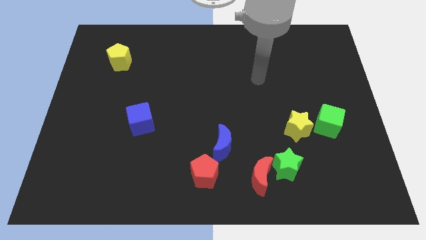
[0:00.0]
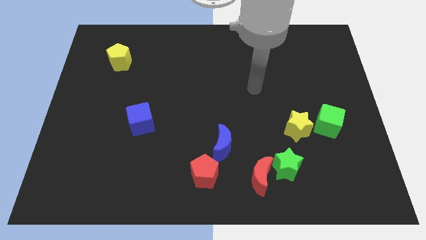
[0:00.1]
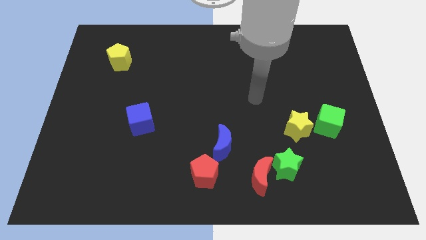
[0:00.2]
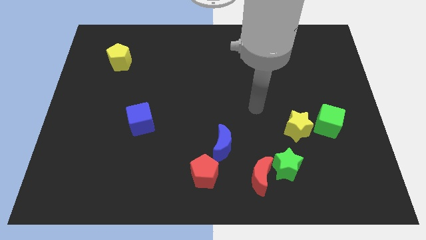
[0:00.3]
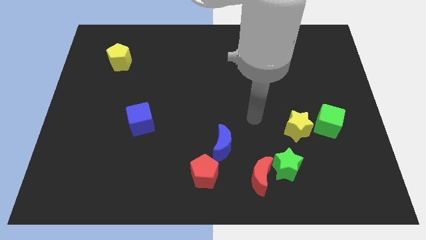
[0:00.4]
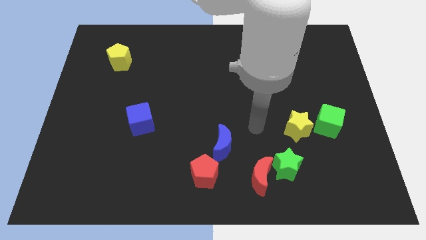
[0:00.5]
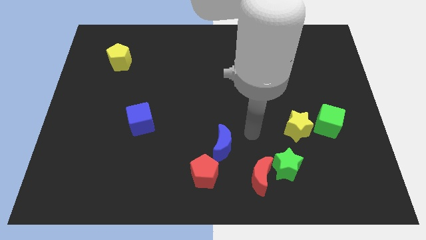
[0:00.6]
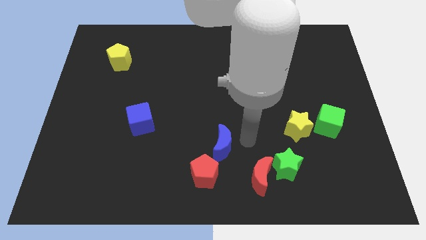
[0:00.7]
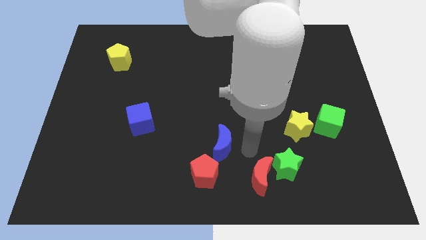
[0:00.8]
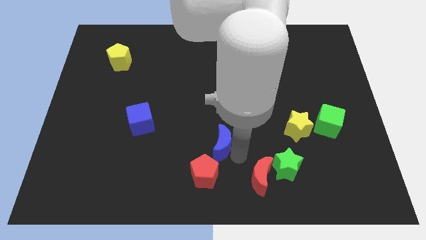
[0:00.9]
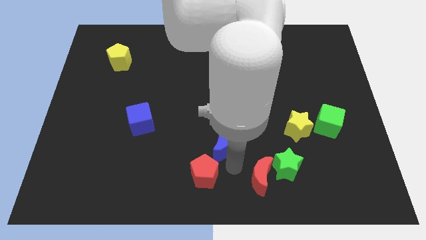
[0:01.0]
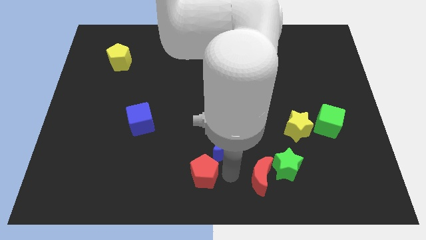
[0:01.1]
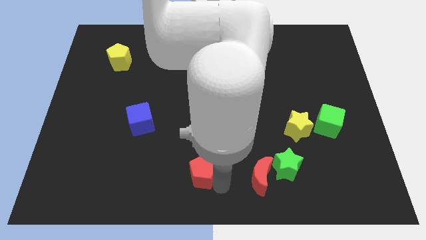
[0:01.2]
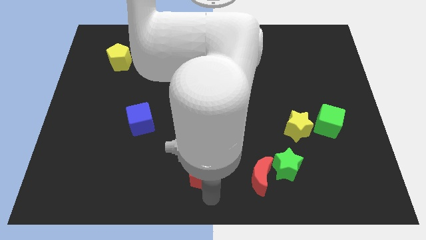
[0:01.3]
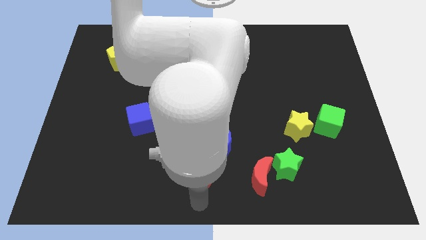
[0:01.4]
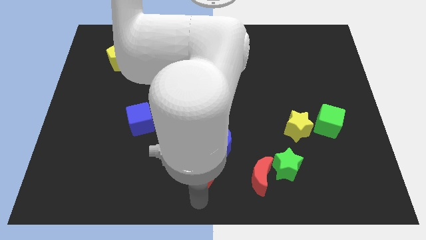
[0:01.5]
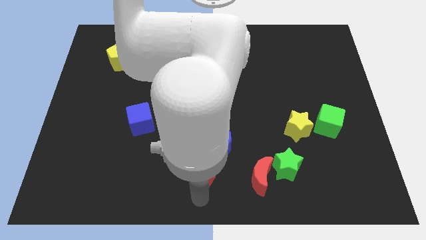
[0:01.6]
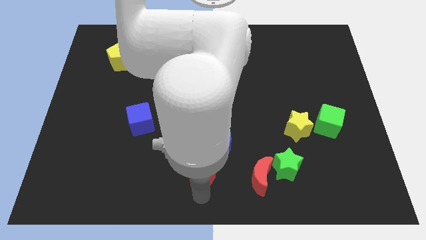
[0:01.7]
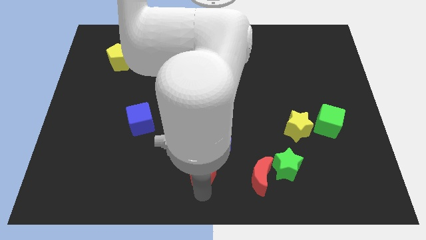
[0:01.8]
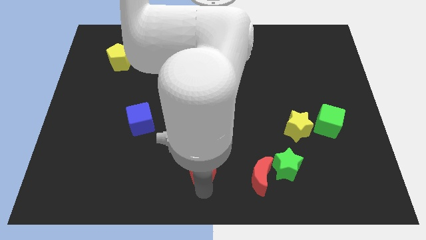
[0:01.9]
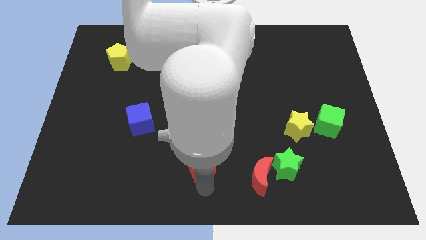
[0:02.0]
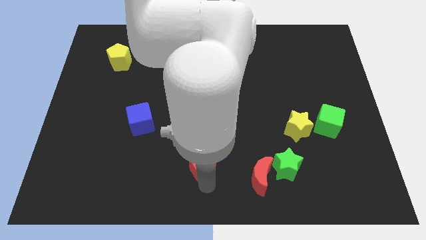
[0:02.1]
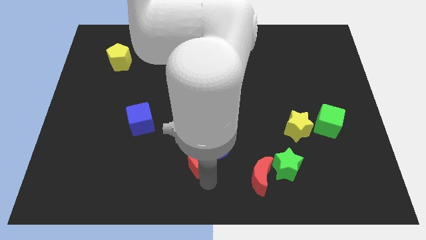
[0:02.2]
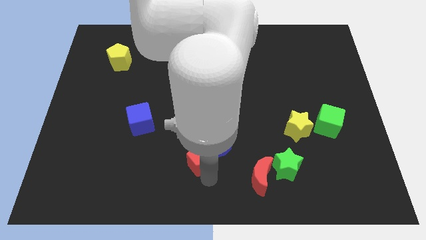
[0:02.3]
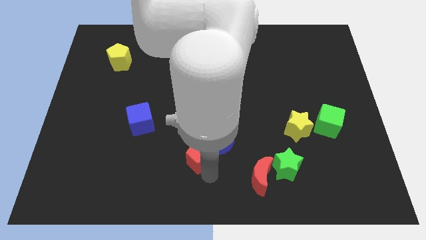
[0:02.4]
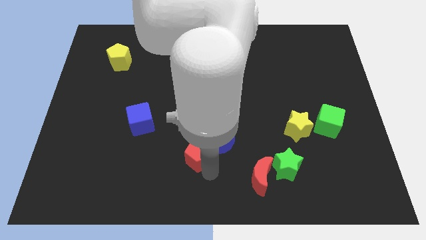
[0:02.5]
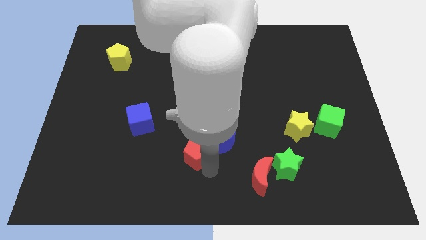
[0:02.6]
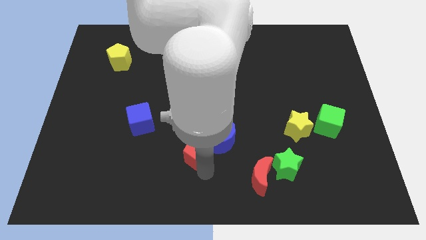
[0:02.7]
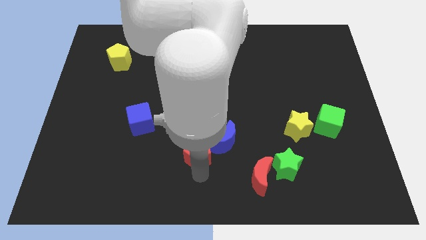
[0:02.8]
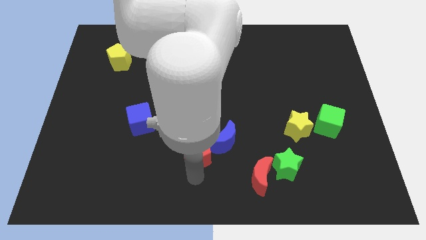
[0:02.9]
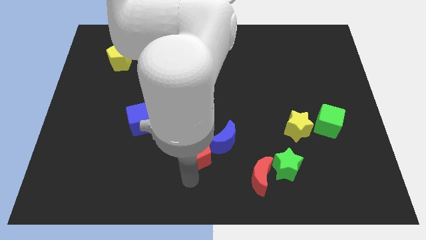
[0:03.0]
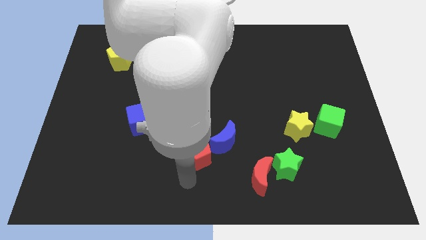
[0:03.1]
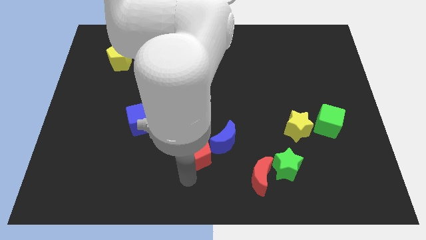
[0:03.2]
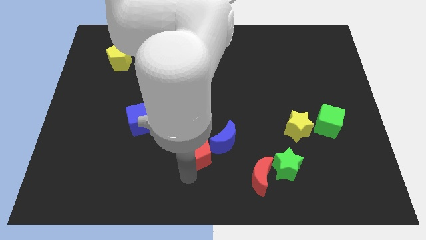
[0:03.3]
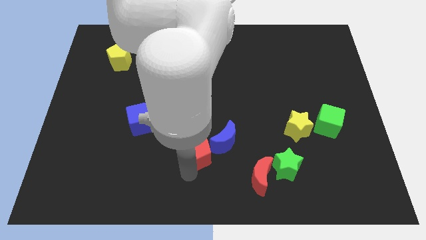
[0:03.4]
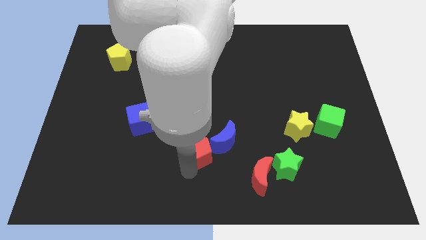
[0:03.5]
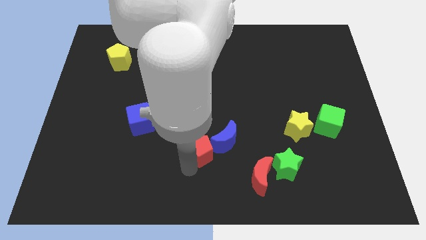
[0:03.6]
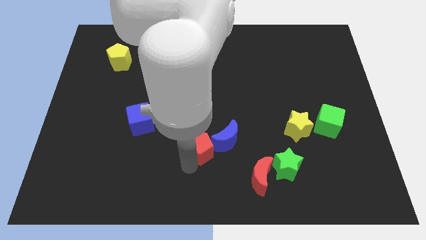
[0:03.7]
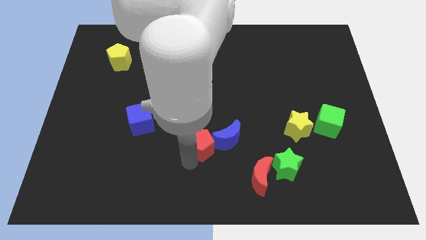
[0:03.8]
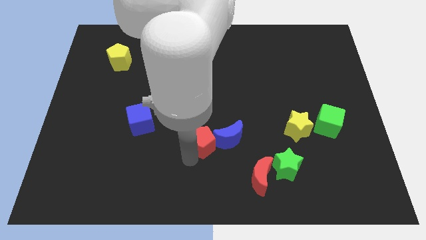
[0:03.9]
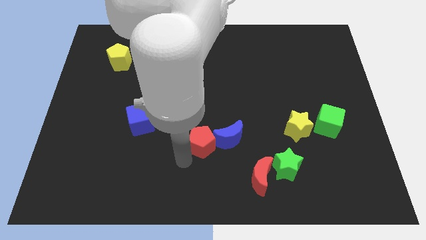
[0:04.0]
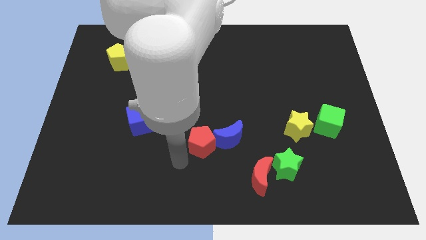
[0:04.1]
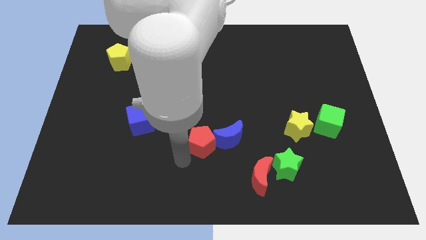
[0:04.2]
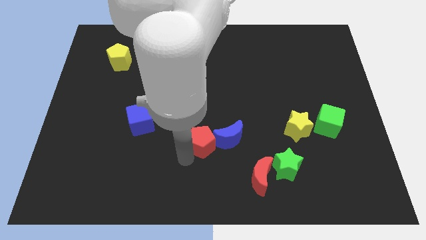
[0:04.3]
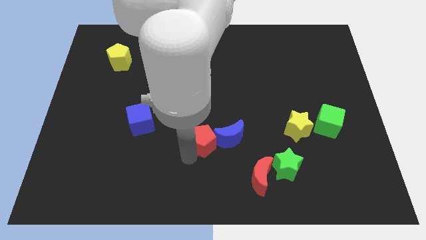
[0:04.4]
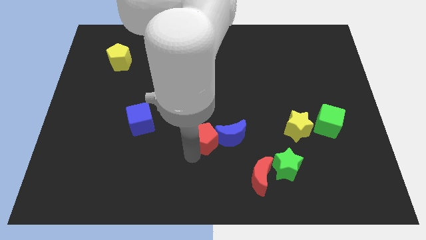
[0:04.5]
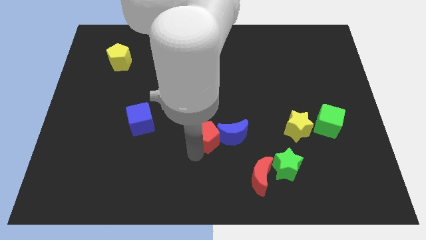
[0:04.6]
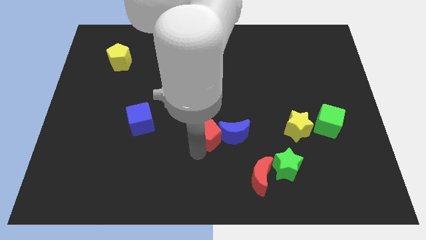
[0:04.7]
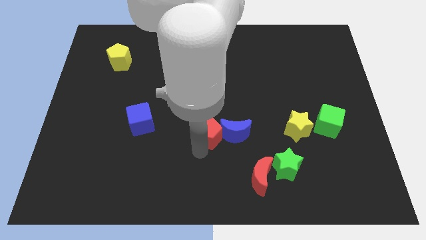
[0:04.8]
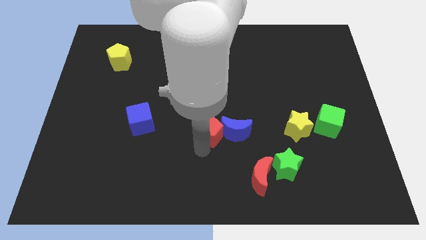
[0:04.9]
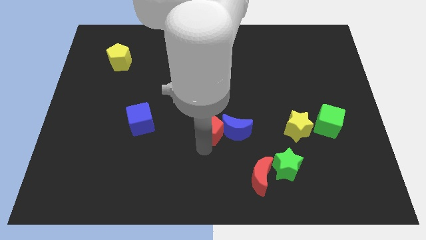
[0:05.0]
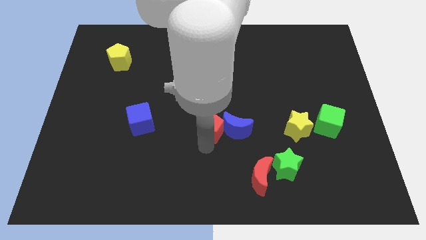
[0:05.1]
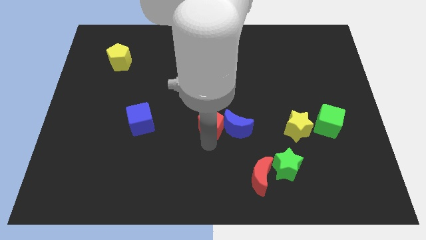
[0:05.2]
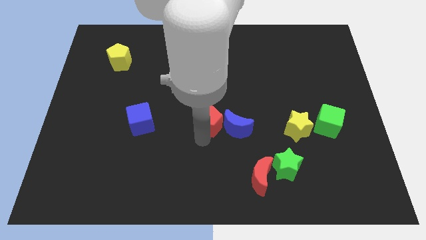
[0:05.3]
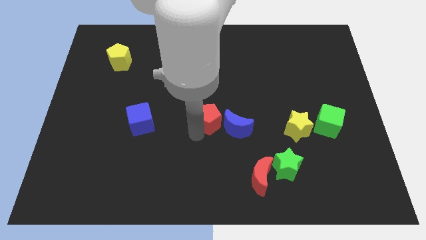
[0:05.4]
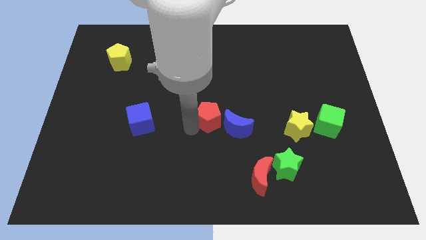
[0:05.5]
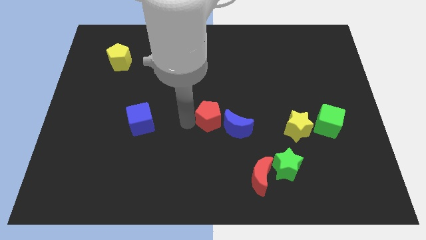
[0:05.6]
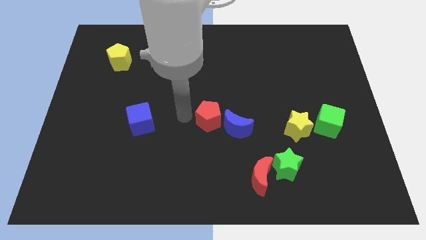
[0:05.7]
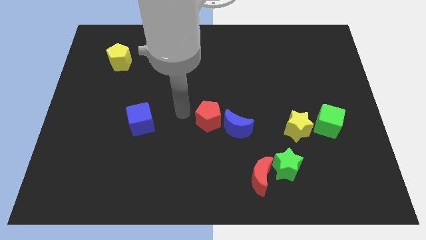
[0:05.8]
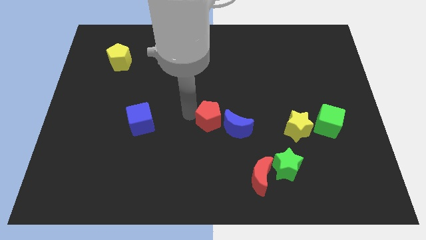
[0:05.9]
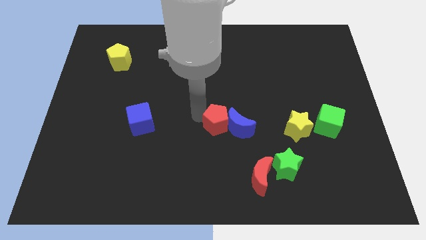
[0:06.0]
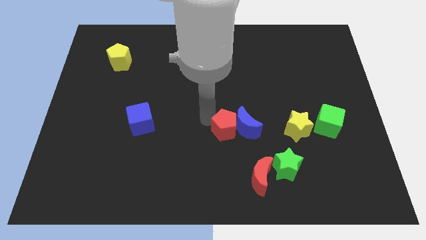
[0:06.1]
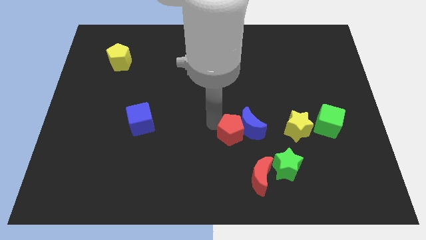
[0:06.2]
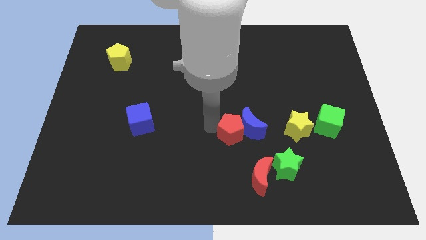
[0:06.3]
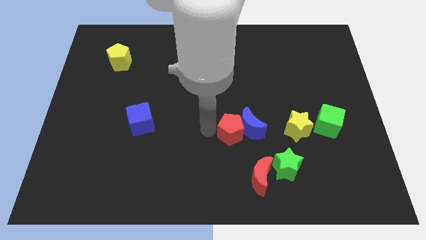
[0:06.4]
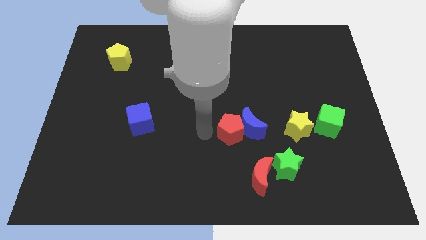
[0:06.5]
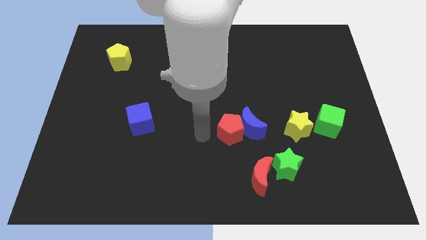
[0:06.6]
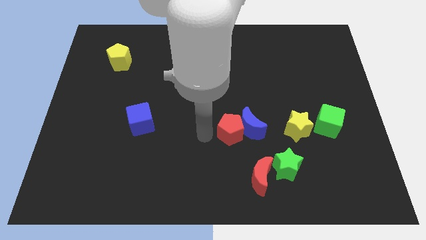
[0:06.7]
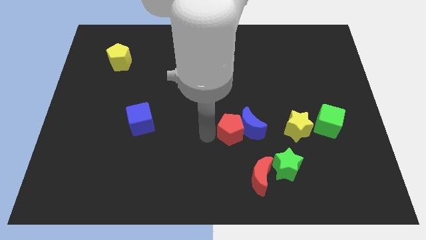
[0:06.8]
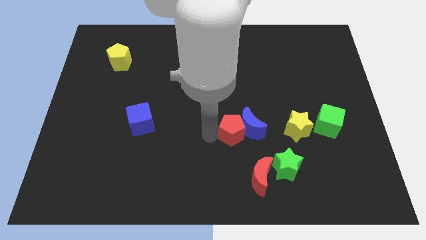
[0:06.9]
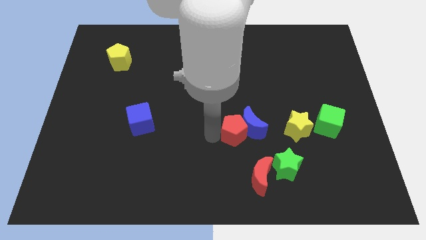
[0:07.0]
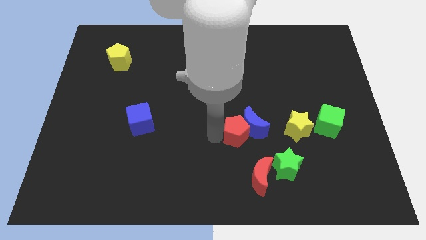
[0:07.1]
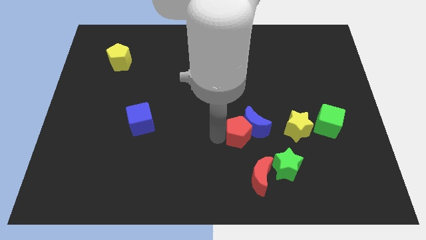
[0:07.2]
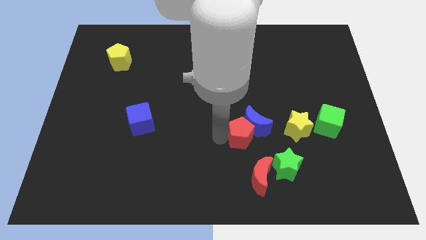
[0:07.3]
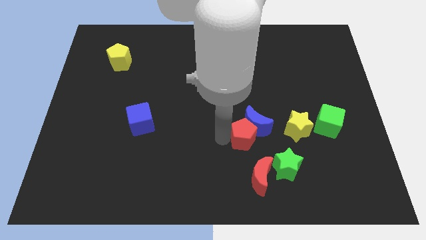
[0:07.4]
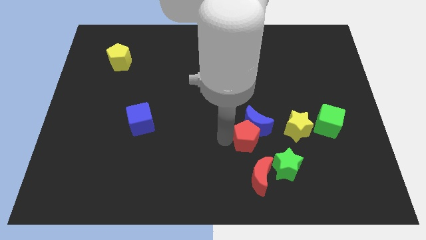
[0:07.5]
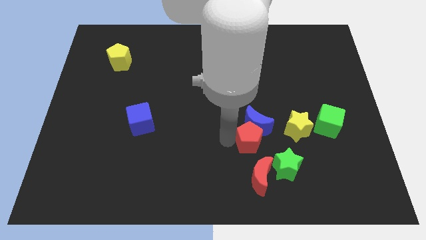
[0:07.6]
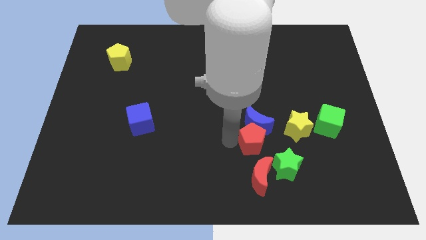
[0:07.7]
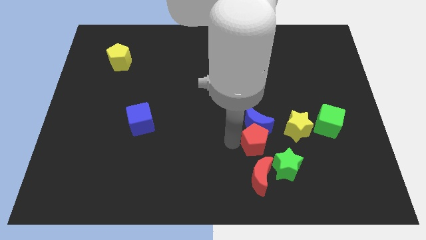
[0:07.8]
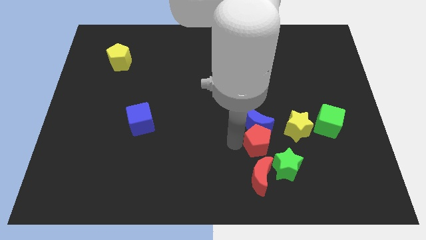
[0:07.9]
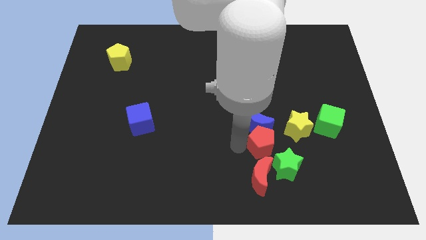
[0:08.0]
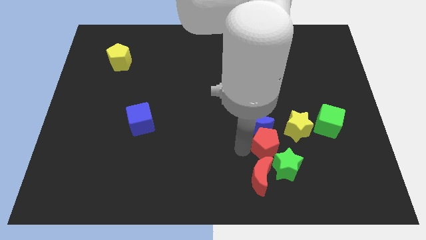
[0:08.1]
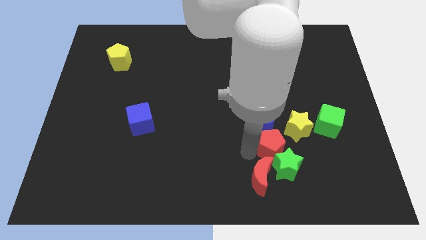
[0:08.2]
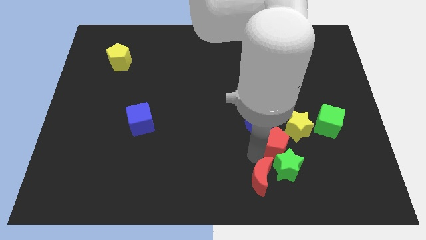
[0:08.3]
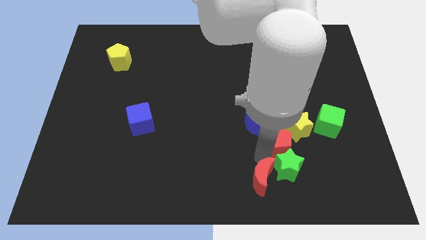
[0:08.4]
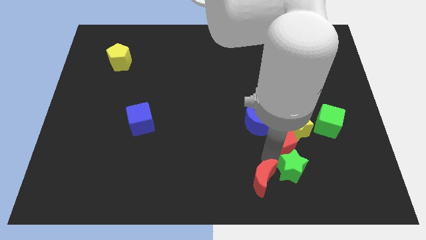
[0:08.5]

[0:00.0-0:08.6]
put the red pentagon next to the yellow star
